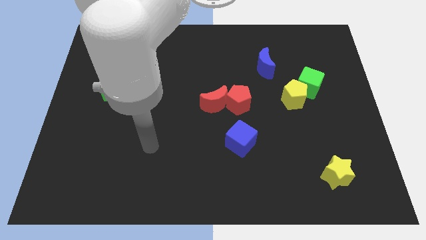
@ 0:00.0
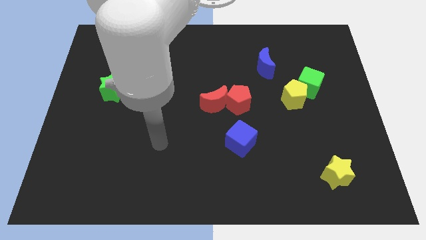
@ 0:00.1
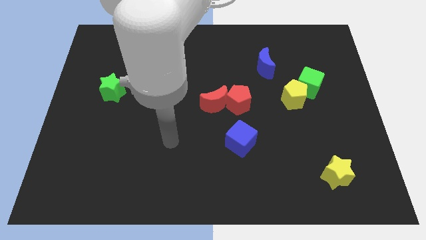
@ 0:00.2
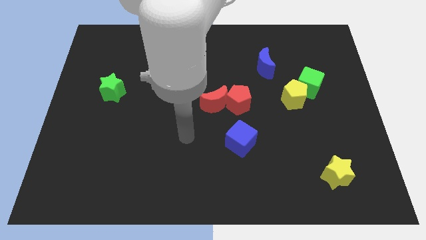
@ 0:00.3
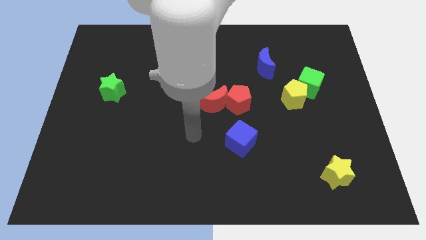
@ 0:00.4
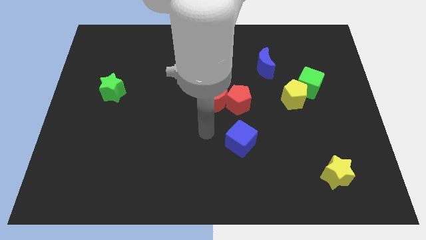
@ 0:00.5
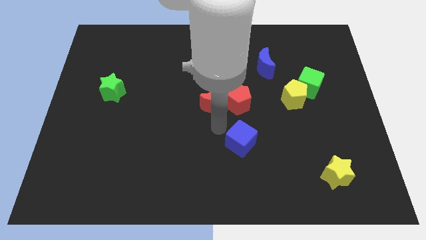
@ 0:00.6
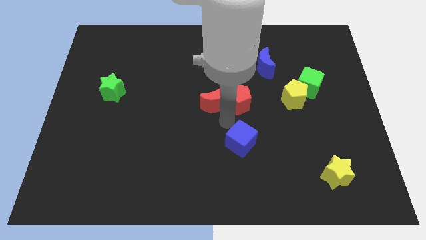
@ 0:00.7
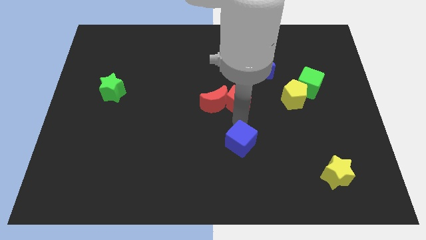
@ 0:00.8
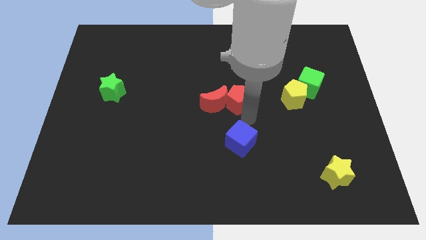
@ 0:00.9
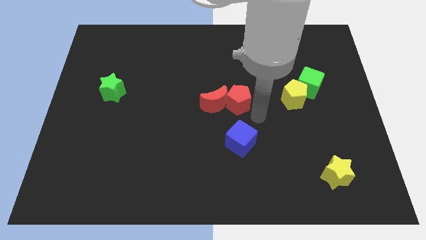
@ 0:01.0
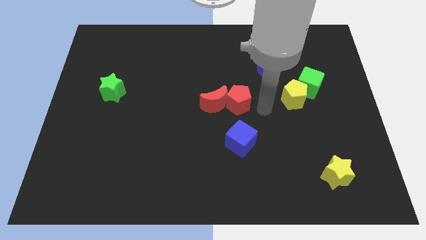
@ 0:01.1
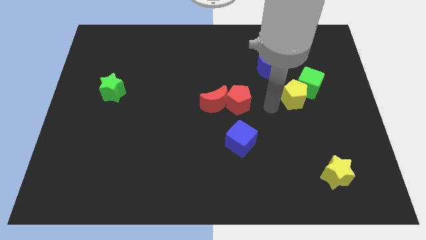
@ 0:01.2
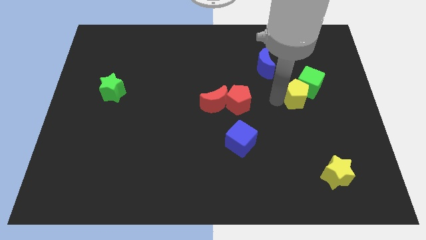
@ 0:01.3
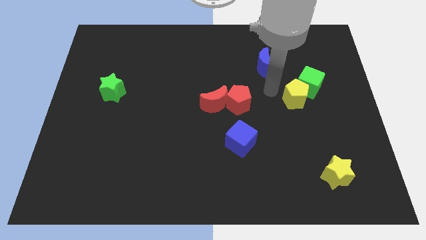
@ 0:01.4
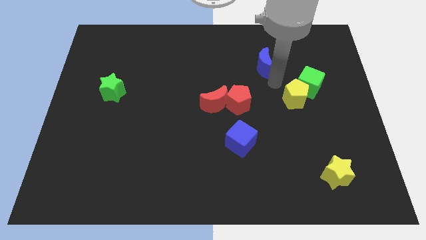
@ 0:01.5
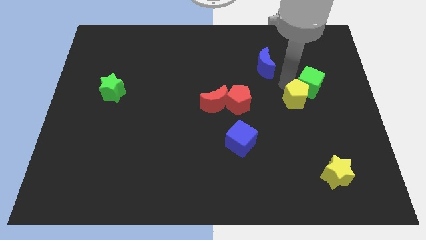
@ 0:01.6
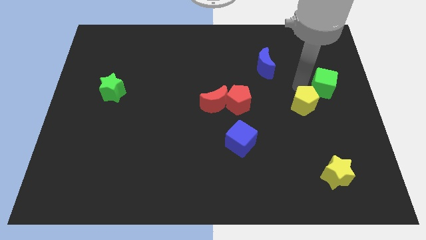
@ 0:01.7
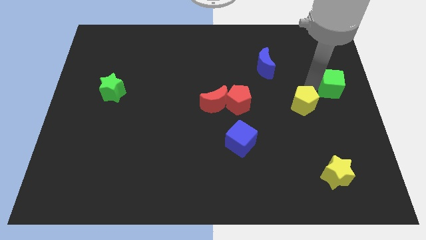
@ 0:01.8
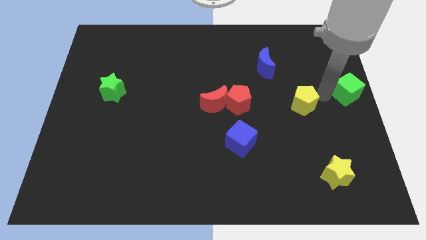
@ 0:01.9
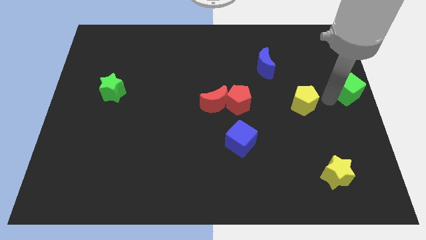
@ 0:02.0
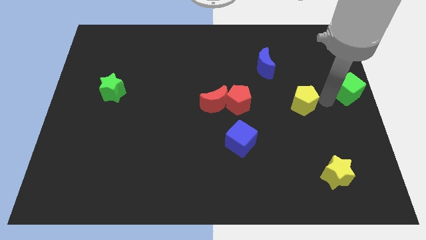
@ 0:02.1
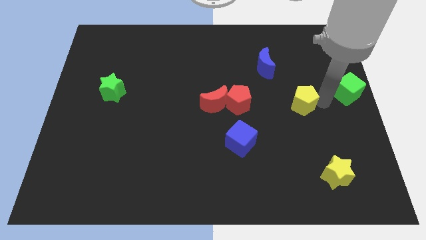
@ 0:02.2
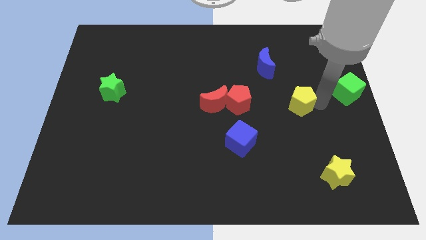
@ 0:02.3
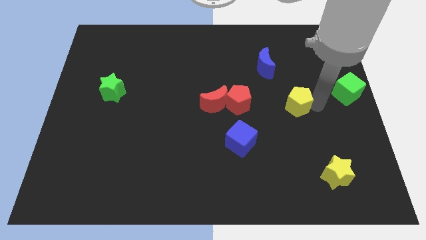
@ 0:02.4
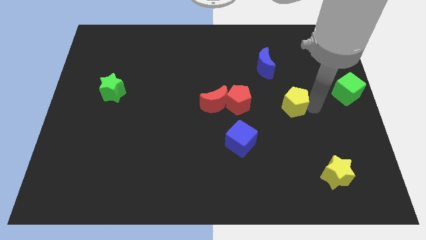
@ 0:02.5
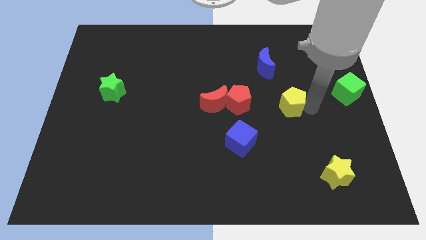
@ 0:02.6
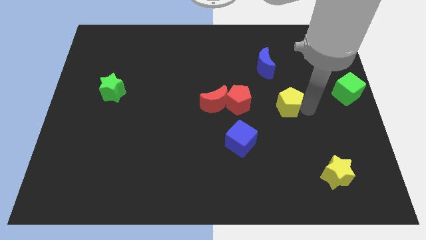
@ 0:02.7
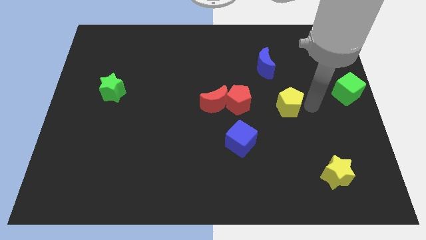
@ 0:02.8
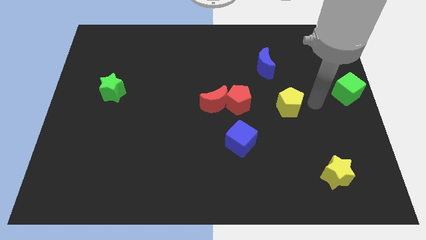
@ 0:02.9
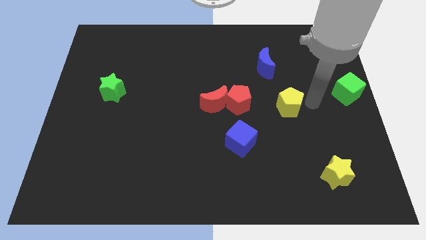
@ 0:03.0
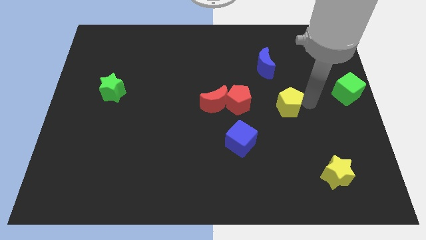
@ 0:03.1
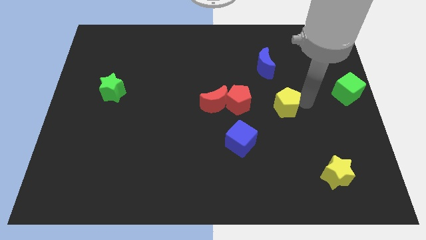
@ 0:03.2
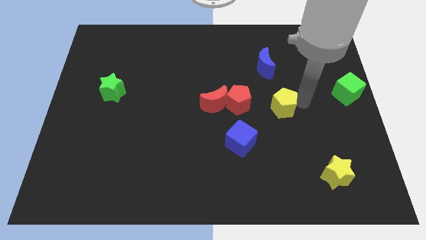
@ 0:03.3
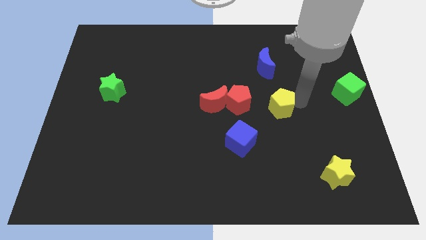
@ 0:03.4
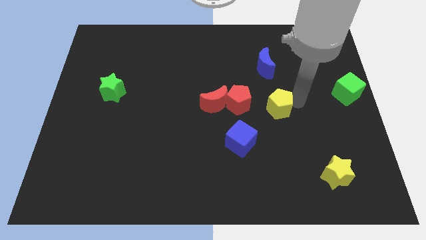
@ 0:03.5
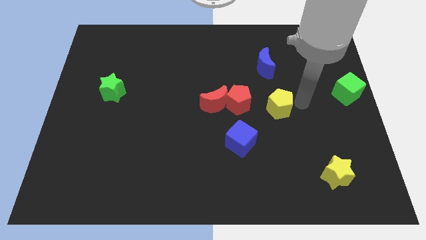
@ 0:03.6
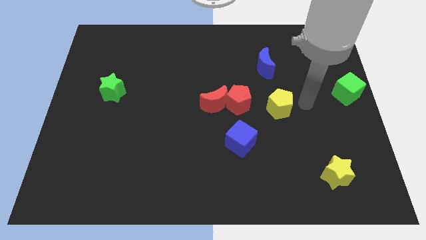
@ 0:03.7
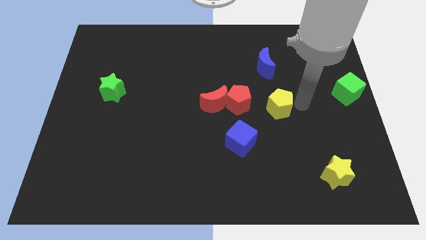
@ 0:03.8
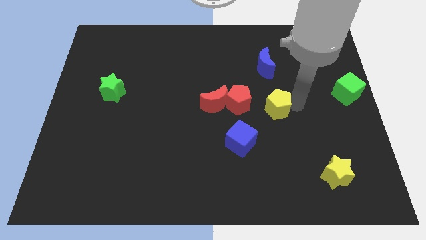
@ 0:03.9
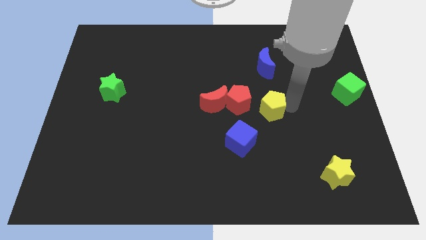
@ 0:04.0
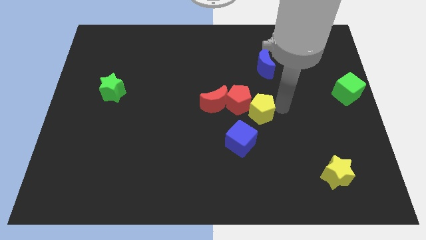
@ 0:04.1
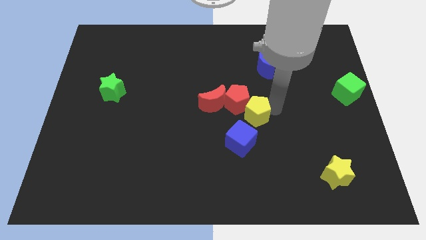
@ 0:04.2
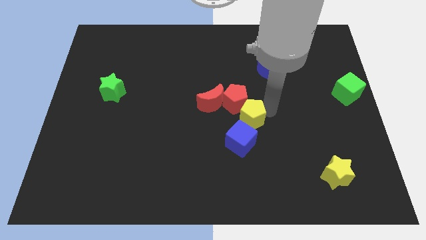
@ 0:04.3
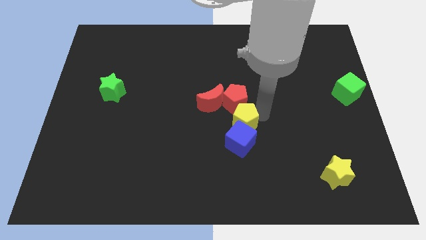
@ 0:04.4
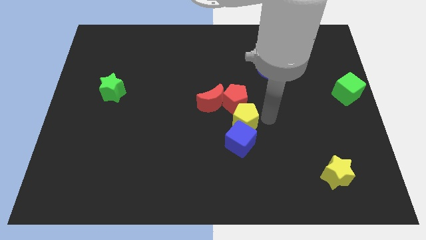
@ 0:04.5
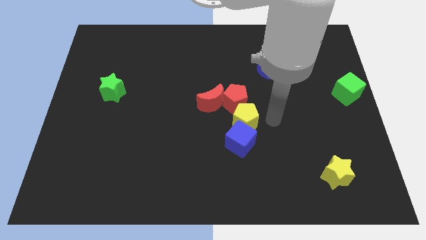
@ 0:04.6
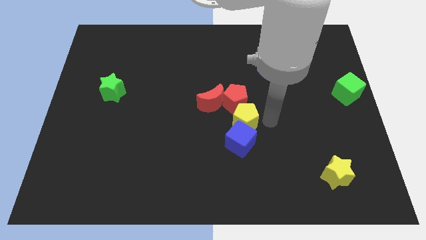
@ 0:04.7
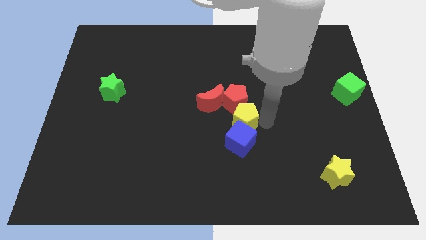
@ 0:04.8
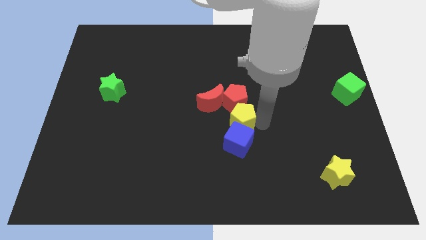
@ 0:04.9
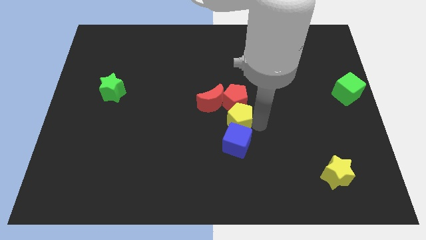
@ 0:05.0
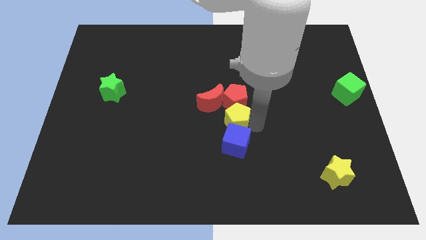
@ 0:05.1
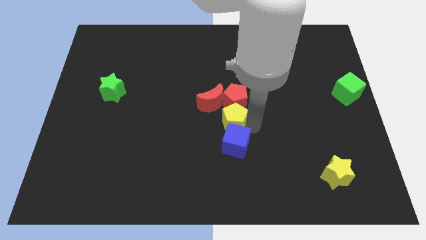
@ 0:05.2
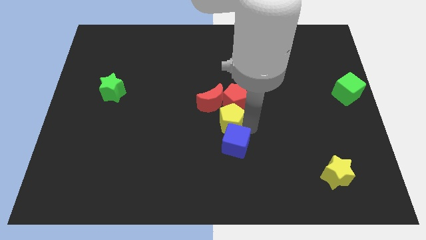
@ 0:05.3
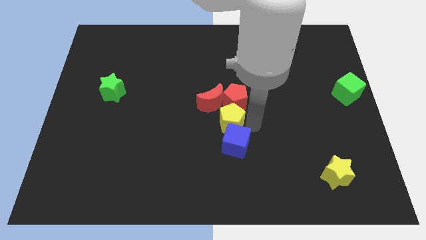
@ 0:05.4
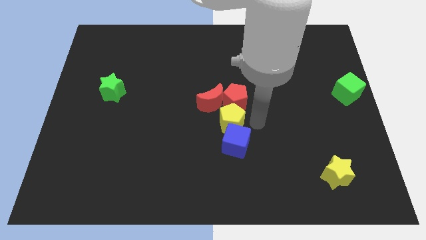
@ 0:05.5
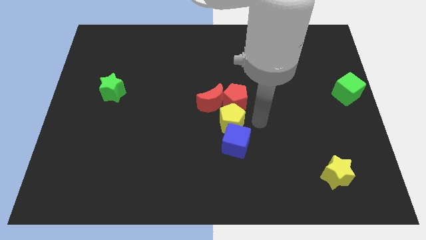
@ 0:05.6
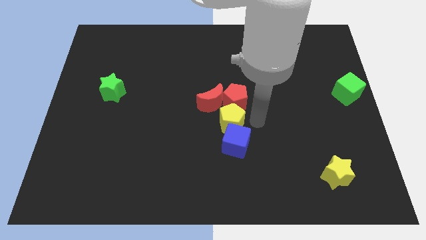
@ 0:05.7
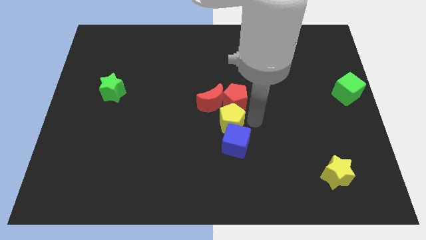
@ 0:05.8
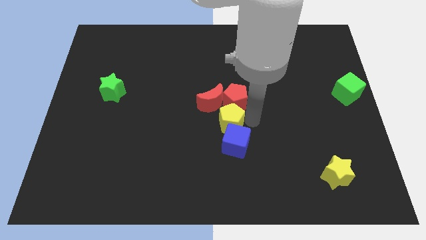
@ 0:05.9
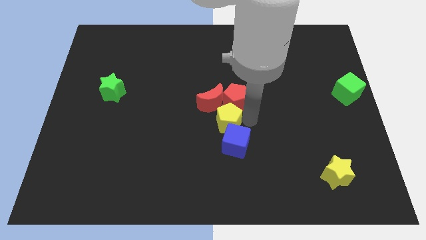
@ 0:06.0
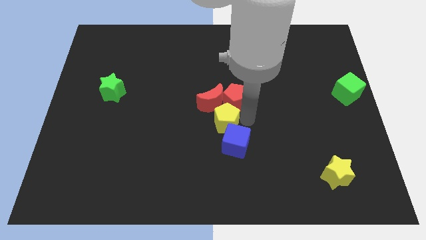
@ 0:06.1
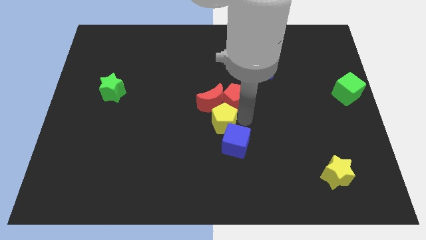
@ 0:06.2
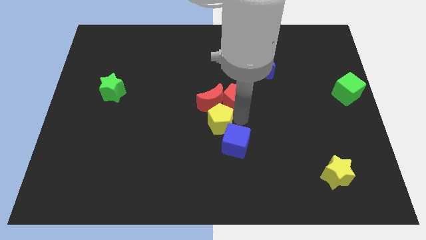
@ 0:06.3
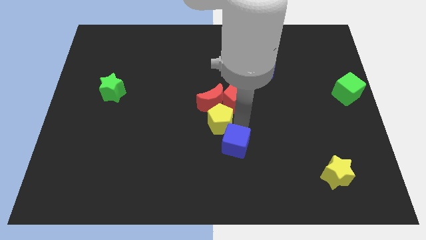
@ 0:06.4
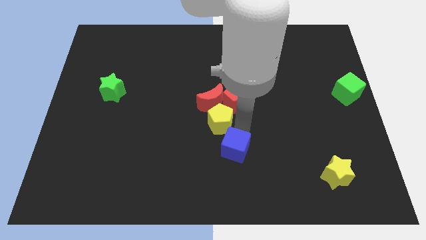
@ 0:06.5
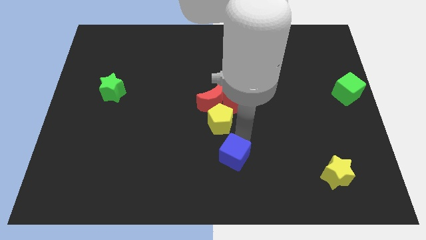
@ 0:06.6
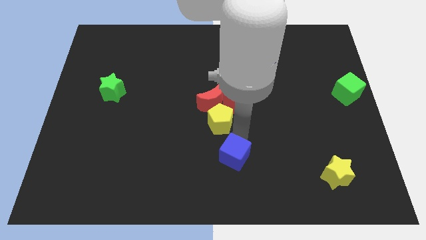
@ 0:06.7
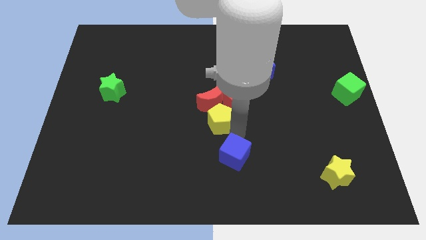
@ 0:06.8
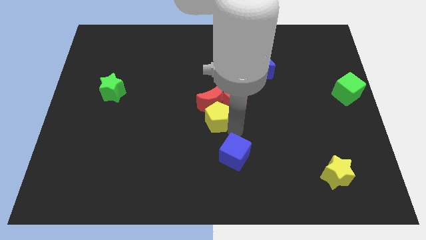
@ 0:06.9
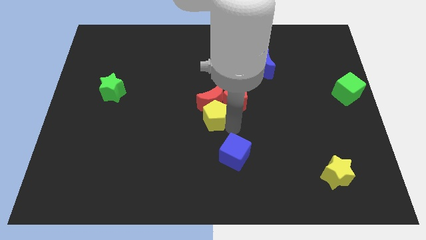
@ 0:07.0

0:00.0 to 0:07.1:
push the yellow pentagon to the left side of the red pentagon

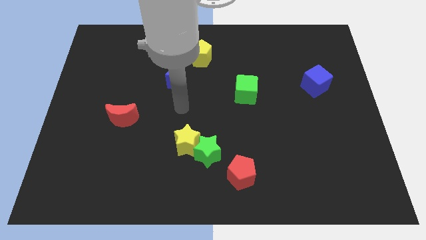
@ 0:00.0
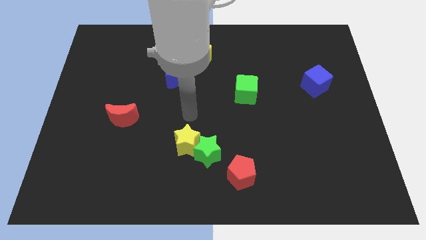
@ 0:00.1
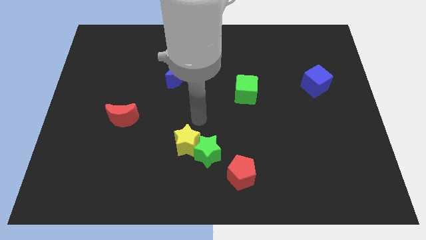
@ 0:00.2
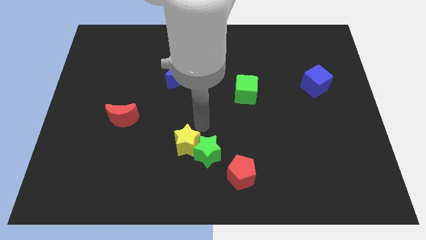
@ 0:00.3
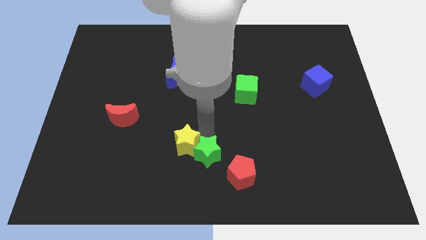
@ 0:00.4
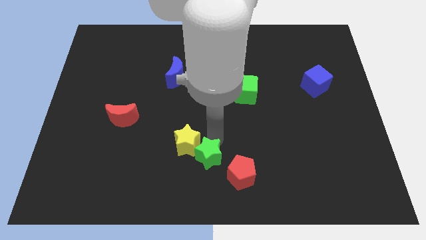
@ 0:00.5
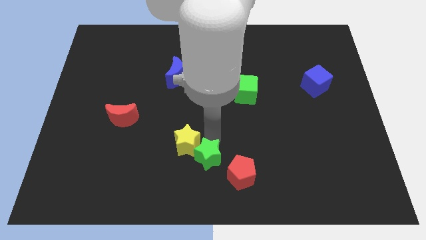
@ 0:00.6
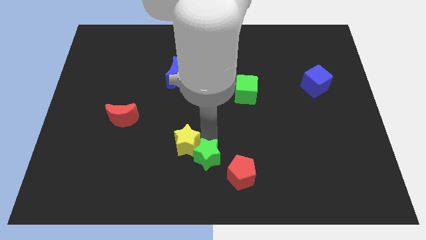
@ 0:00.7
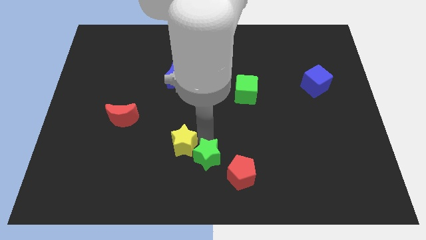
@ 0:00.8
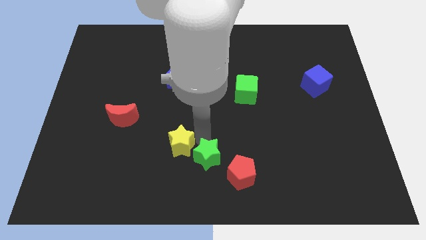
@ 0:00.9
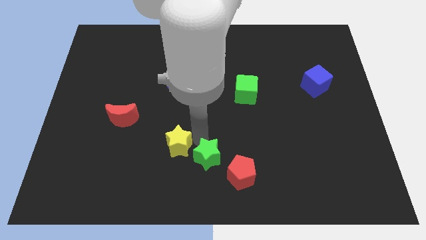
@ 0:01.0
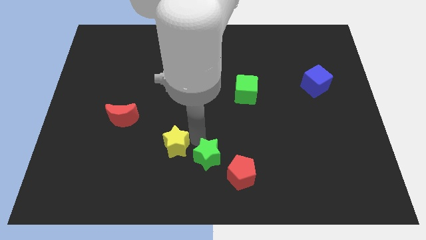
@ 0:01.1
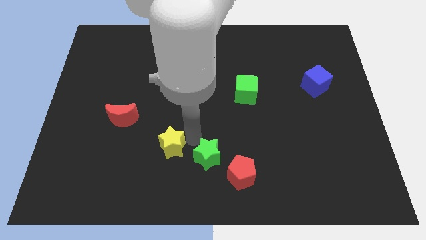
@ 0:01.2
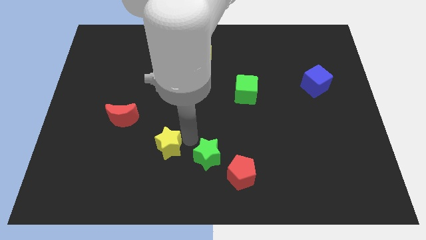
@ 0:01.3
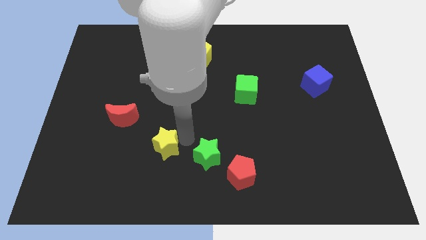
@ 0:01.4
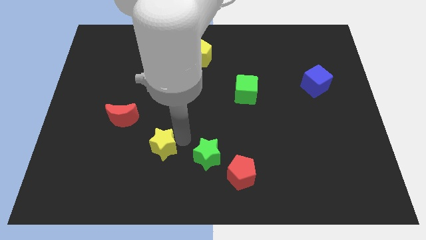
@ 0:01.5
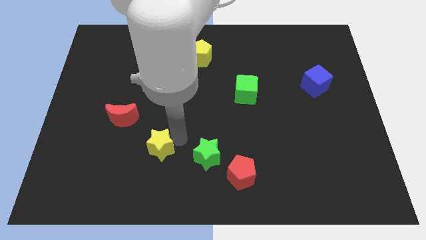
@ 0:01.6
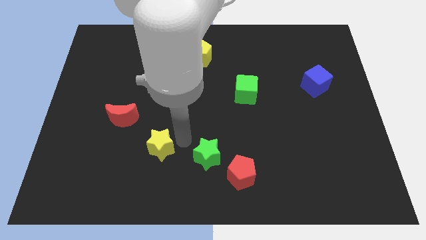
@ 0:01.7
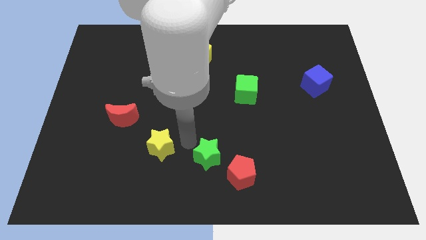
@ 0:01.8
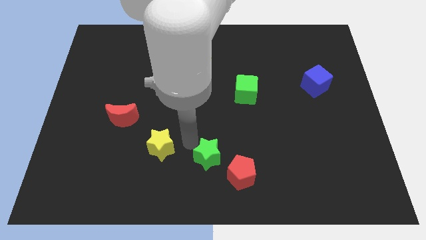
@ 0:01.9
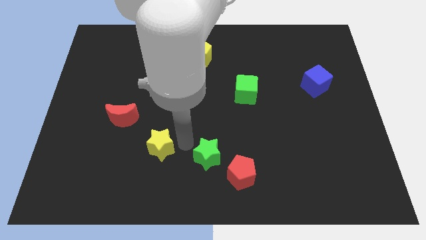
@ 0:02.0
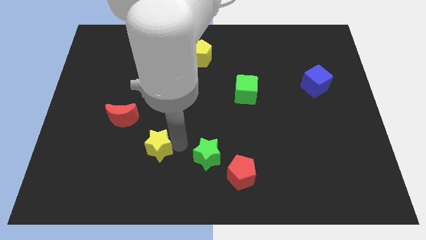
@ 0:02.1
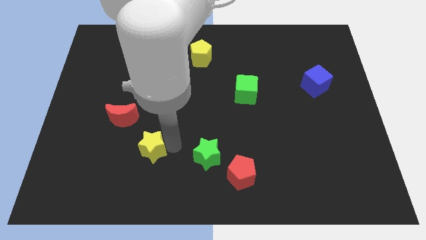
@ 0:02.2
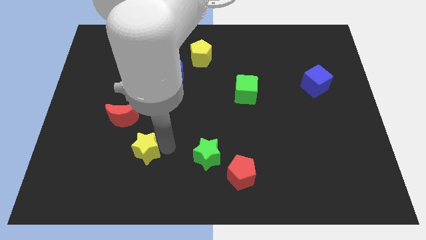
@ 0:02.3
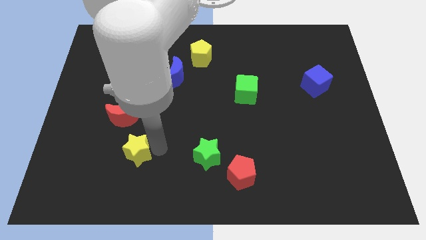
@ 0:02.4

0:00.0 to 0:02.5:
move the yellow star to the bottom side of the red moon
